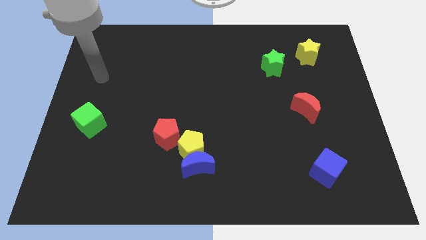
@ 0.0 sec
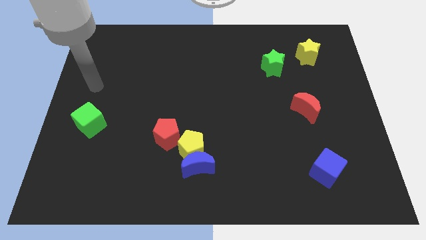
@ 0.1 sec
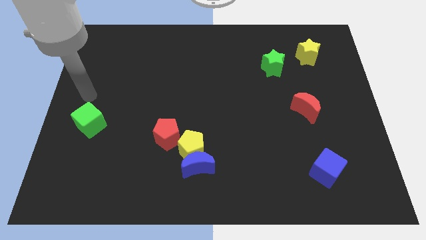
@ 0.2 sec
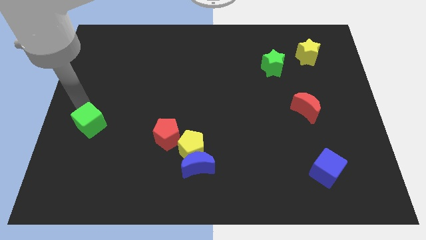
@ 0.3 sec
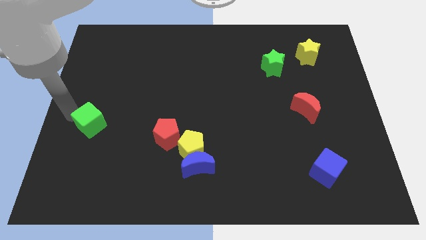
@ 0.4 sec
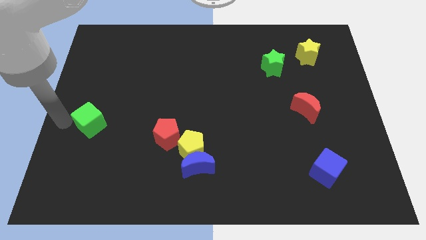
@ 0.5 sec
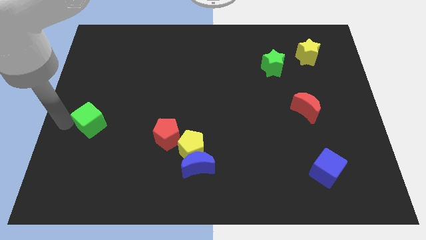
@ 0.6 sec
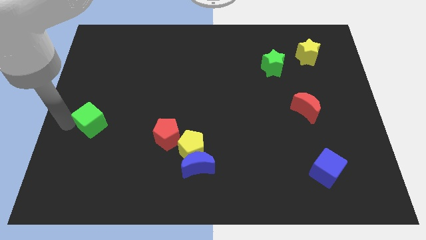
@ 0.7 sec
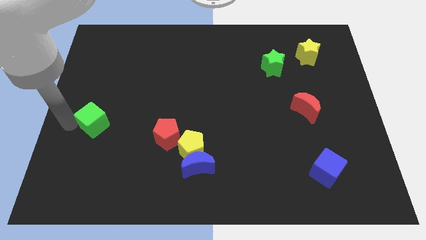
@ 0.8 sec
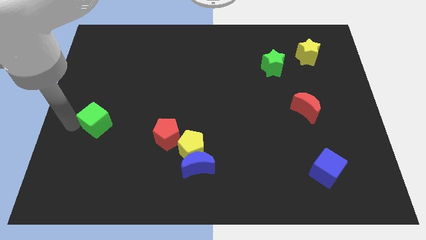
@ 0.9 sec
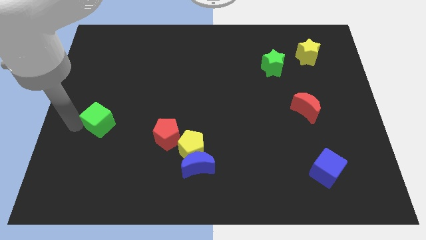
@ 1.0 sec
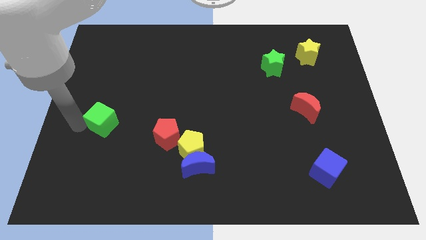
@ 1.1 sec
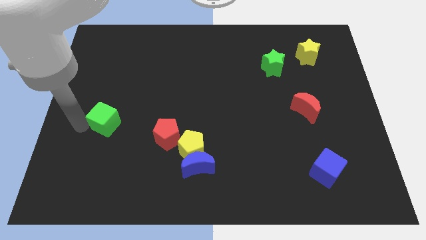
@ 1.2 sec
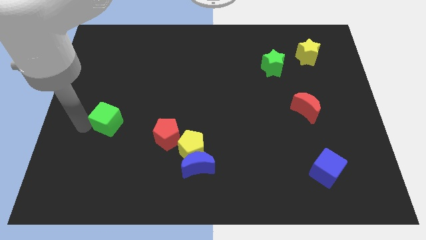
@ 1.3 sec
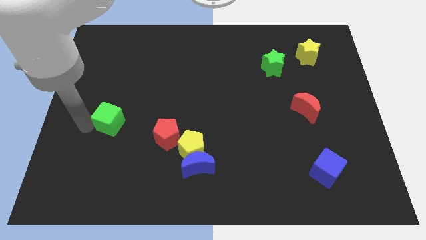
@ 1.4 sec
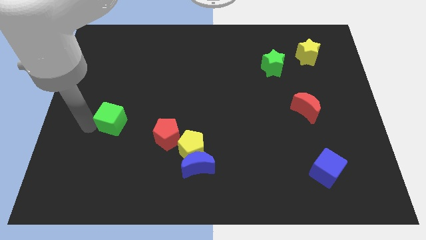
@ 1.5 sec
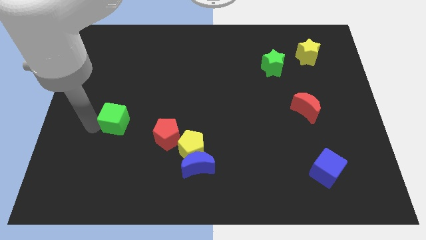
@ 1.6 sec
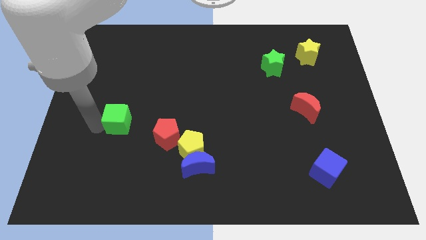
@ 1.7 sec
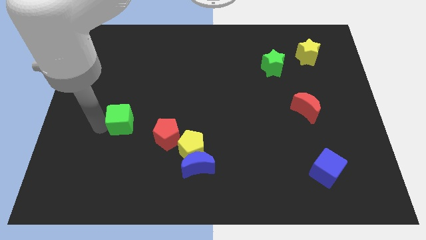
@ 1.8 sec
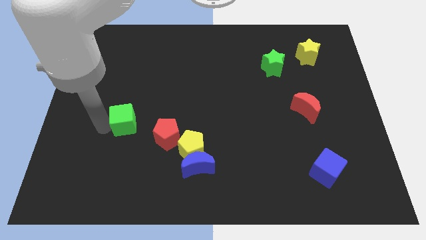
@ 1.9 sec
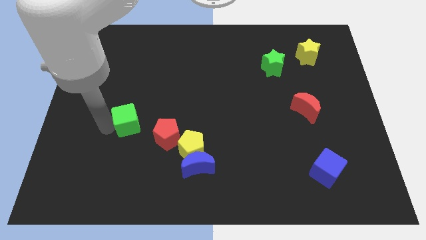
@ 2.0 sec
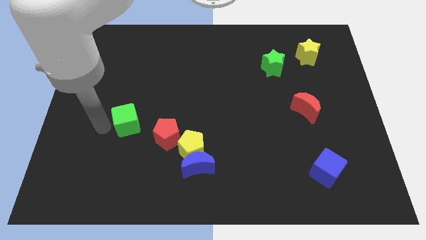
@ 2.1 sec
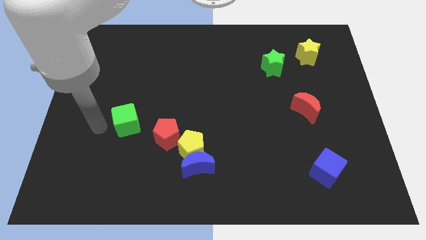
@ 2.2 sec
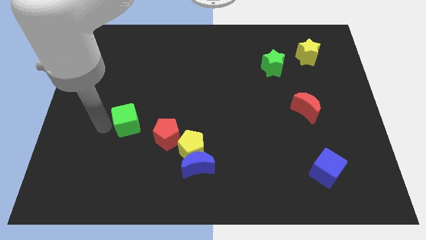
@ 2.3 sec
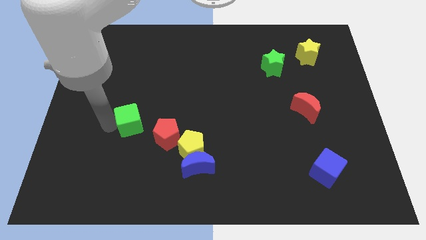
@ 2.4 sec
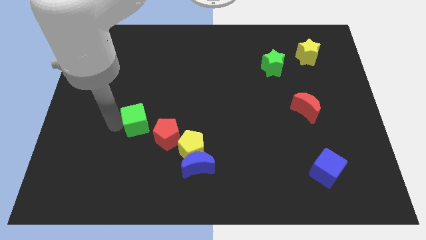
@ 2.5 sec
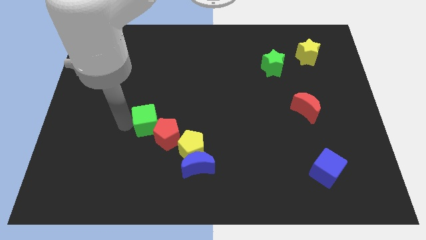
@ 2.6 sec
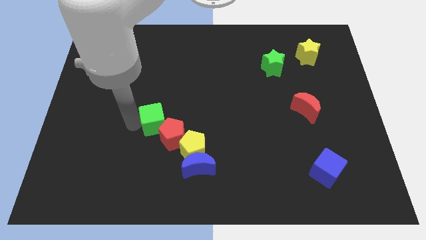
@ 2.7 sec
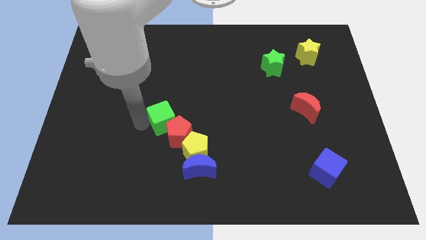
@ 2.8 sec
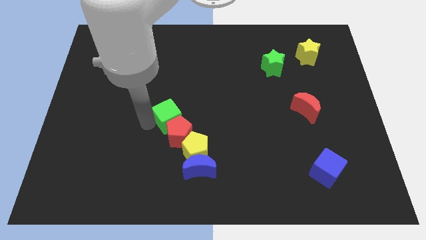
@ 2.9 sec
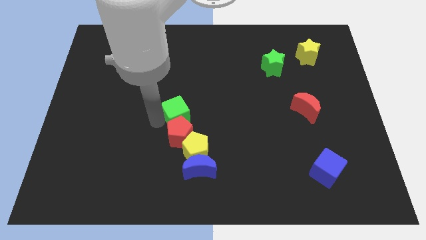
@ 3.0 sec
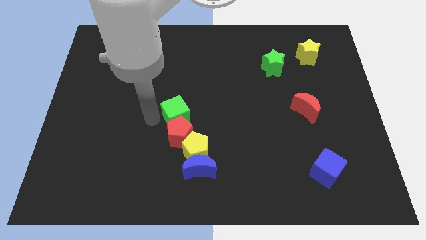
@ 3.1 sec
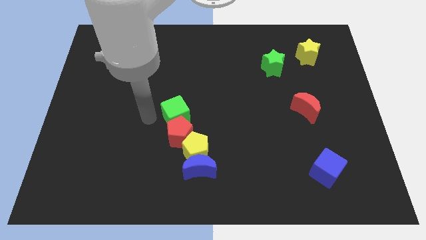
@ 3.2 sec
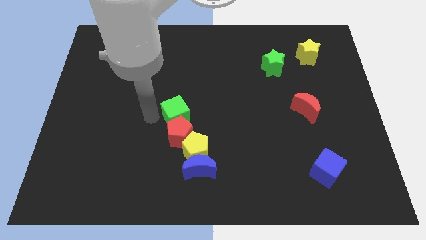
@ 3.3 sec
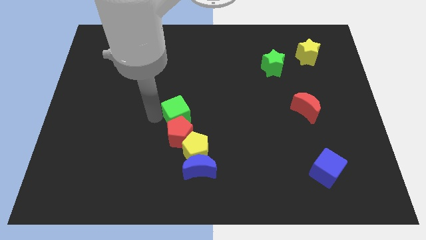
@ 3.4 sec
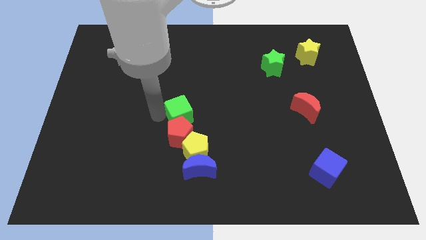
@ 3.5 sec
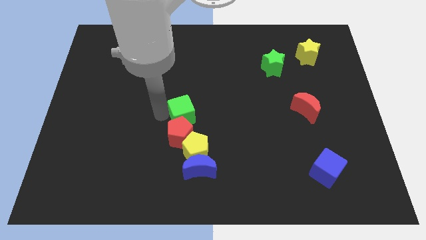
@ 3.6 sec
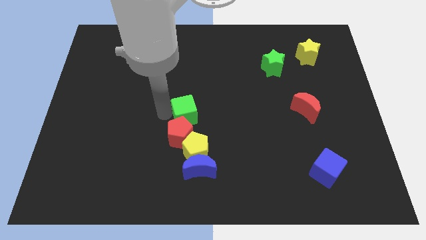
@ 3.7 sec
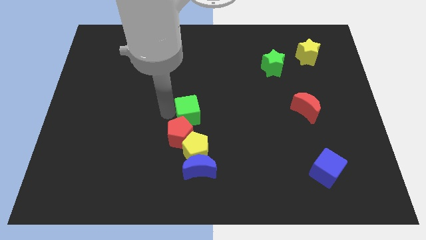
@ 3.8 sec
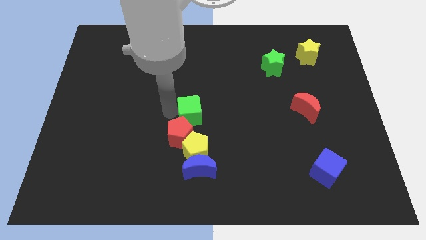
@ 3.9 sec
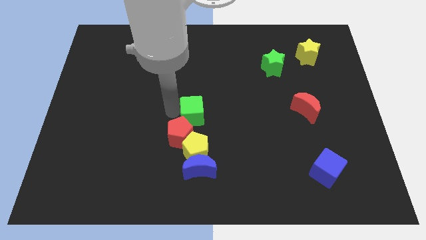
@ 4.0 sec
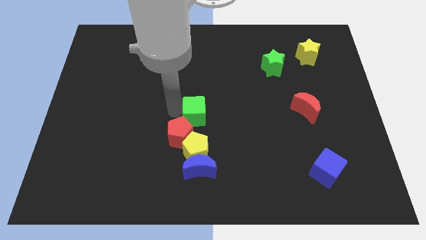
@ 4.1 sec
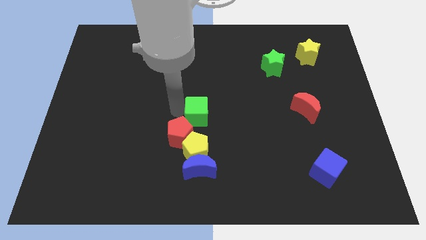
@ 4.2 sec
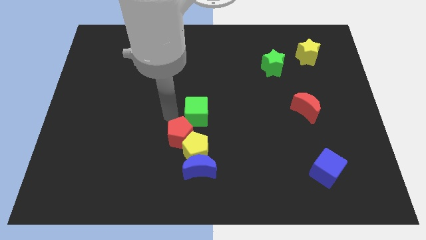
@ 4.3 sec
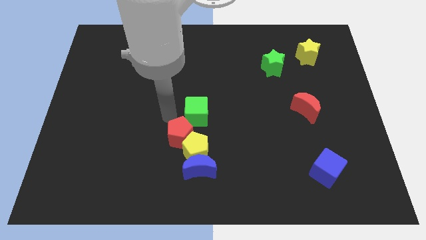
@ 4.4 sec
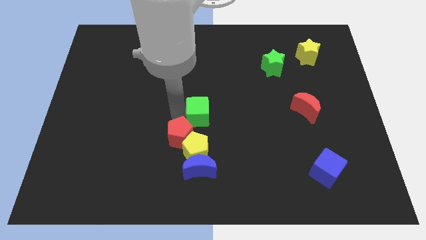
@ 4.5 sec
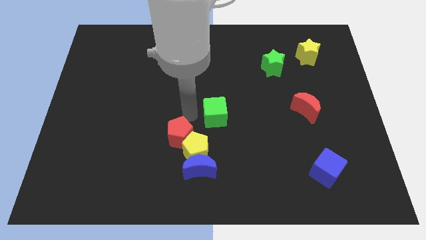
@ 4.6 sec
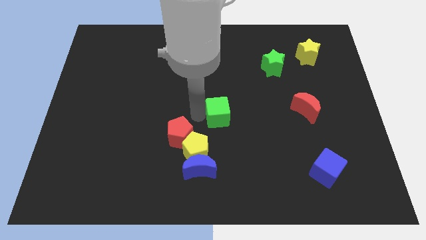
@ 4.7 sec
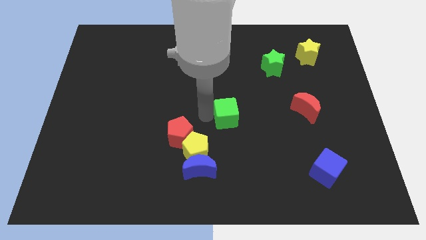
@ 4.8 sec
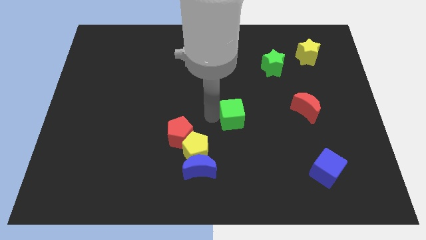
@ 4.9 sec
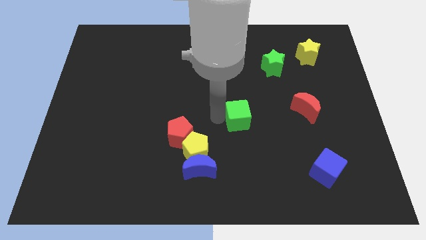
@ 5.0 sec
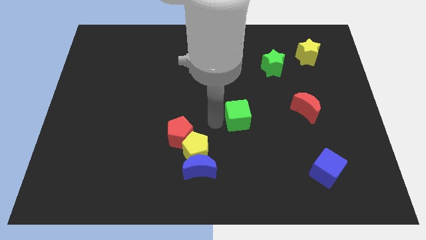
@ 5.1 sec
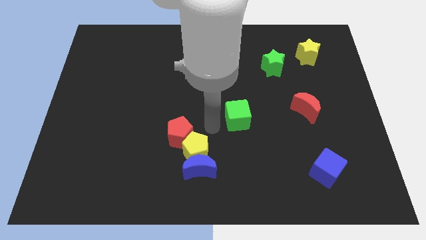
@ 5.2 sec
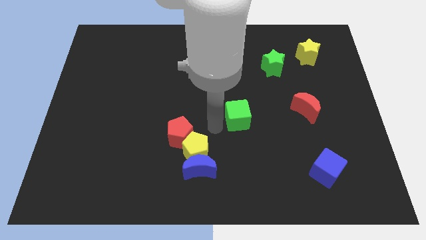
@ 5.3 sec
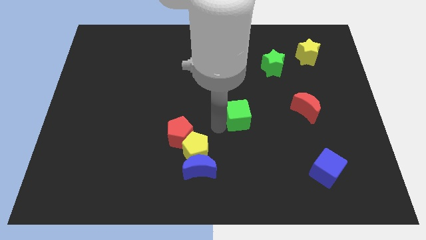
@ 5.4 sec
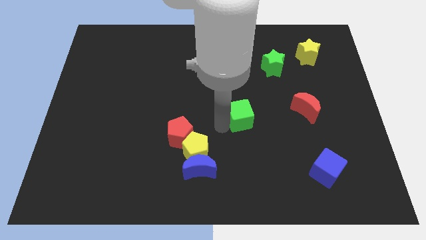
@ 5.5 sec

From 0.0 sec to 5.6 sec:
push the green cube left of the red moon

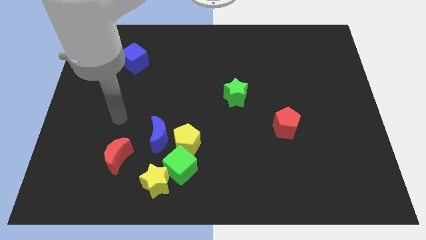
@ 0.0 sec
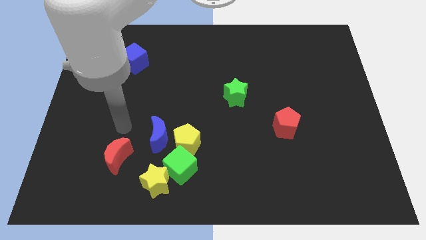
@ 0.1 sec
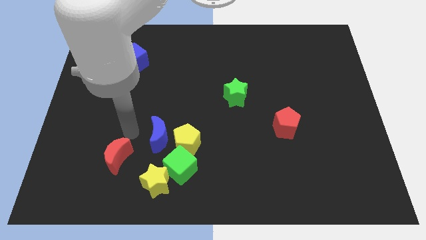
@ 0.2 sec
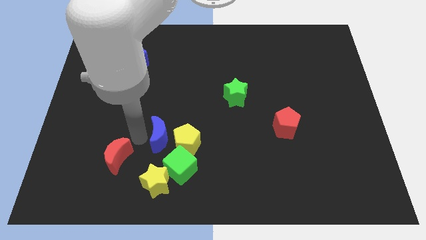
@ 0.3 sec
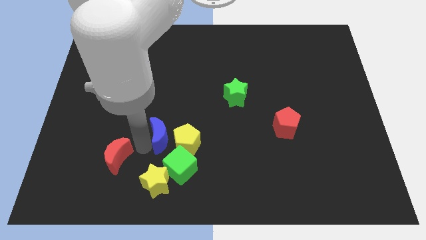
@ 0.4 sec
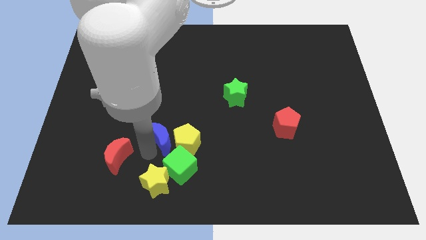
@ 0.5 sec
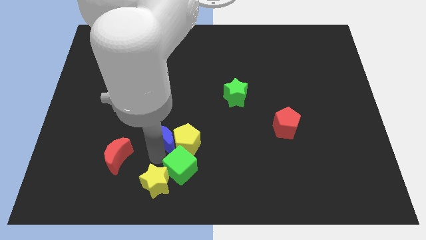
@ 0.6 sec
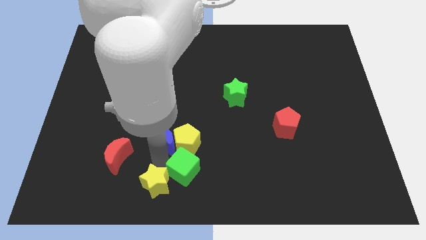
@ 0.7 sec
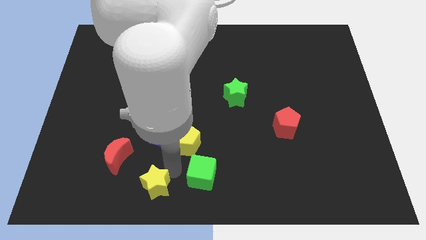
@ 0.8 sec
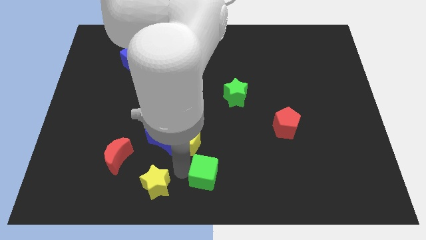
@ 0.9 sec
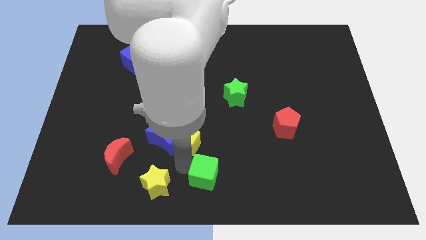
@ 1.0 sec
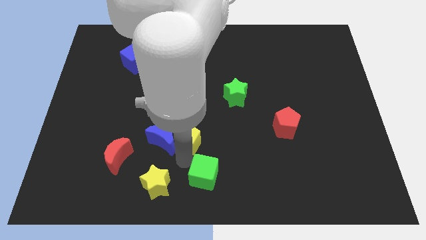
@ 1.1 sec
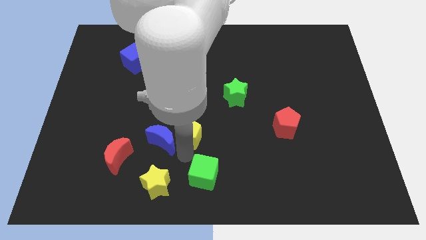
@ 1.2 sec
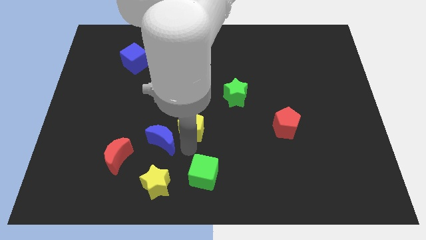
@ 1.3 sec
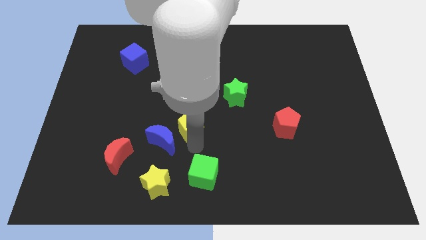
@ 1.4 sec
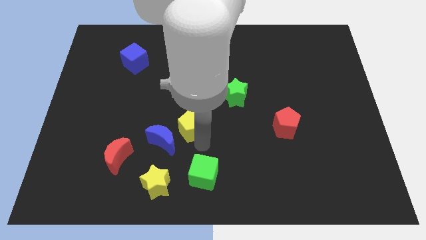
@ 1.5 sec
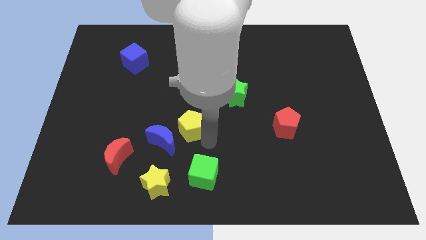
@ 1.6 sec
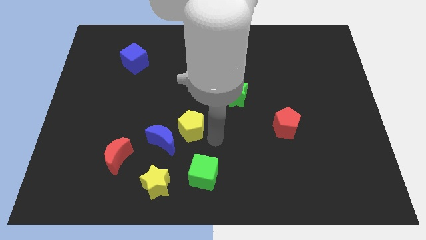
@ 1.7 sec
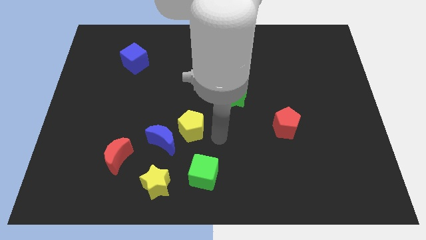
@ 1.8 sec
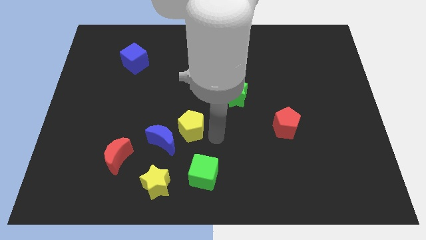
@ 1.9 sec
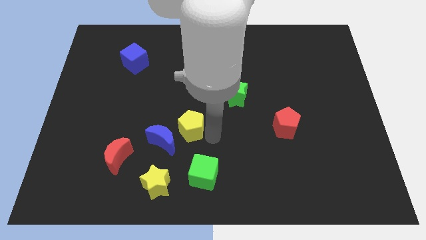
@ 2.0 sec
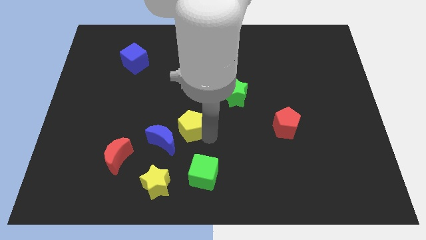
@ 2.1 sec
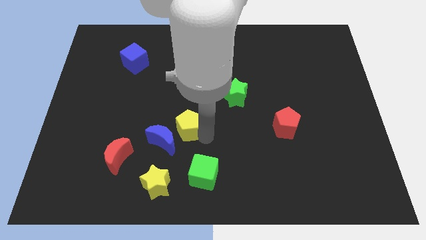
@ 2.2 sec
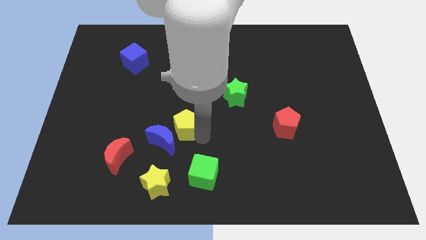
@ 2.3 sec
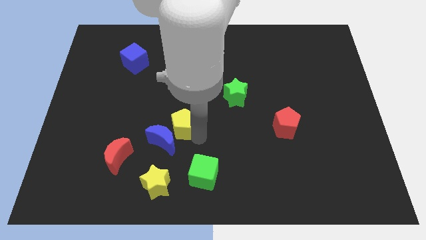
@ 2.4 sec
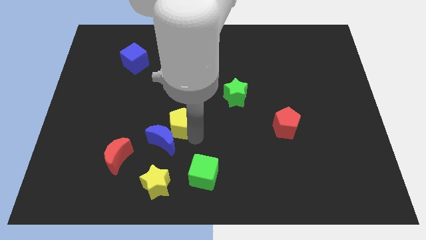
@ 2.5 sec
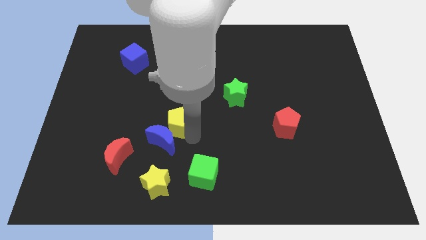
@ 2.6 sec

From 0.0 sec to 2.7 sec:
move the yellow pentagon to the top side of the yellow star

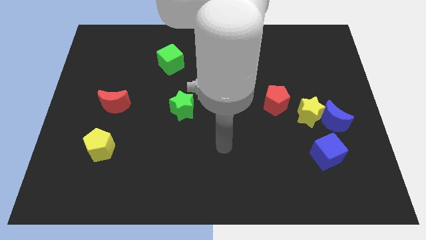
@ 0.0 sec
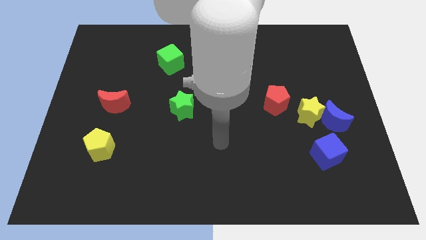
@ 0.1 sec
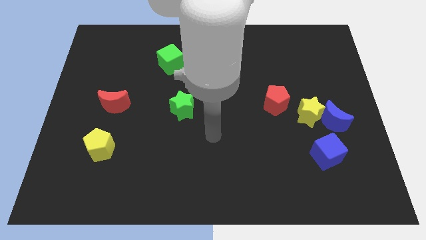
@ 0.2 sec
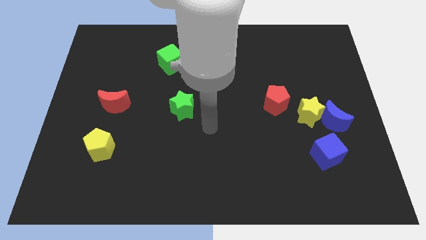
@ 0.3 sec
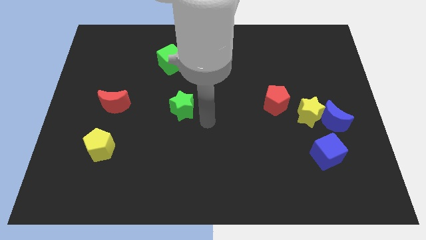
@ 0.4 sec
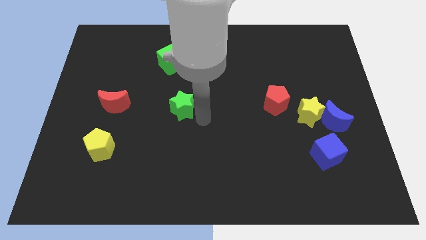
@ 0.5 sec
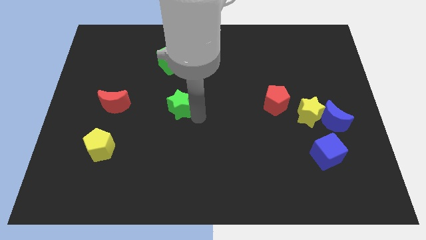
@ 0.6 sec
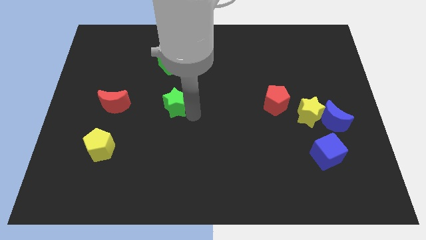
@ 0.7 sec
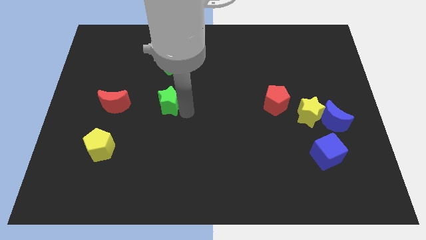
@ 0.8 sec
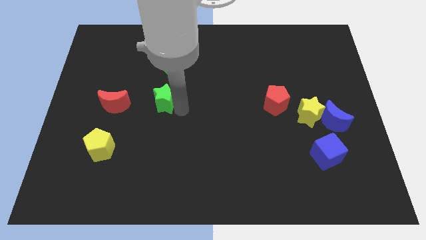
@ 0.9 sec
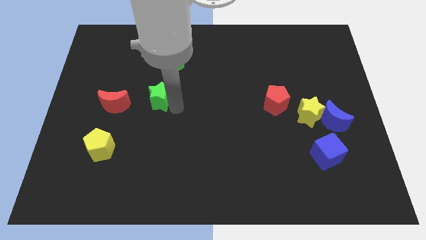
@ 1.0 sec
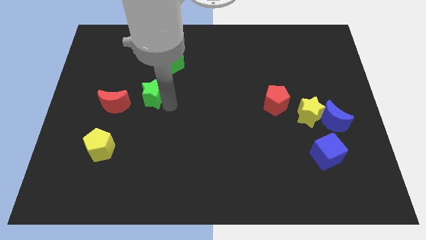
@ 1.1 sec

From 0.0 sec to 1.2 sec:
push the green star diagonally up and to the right of the red moon
